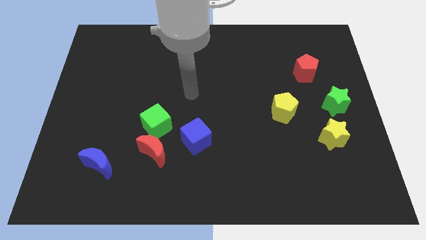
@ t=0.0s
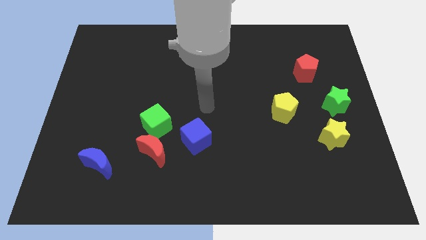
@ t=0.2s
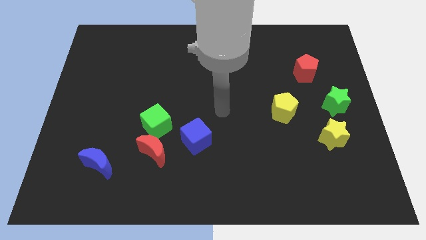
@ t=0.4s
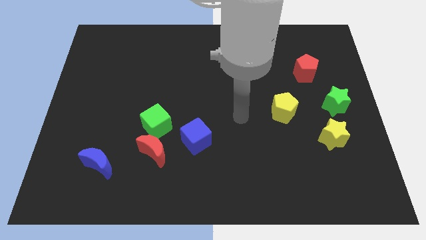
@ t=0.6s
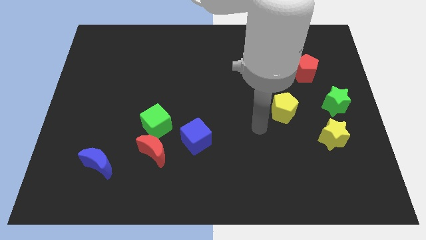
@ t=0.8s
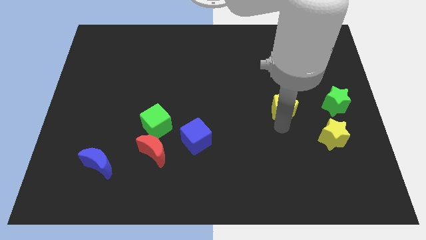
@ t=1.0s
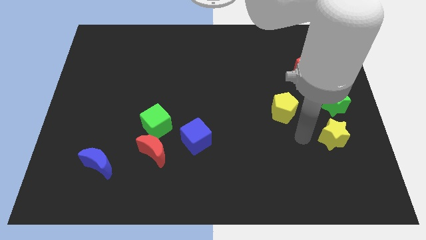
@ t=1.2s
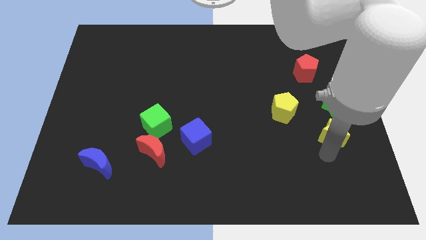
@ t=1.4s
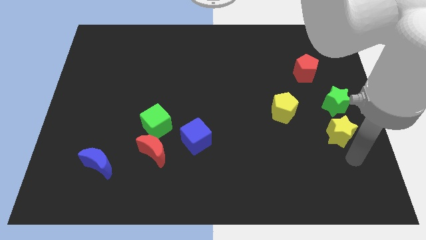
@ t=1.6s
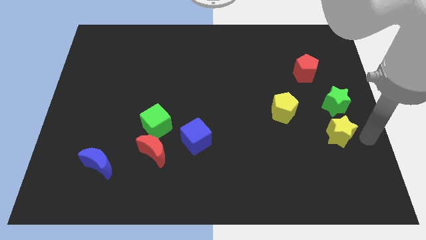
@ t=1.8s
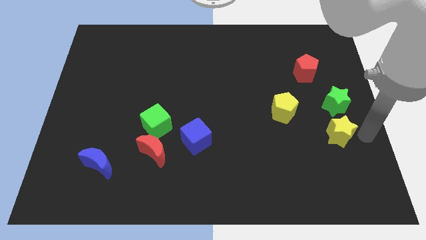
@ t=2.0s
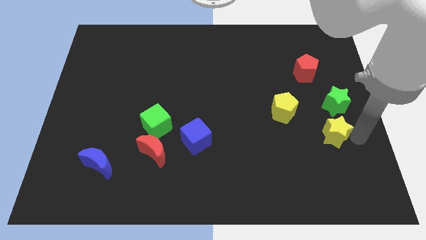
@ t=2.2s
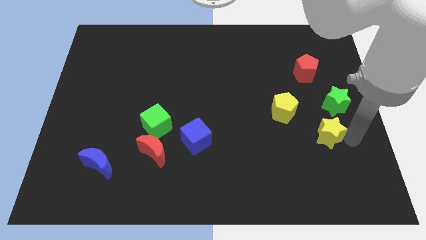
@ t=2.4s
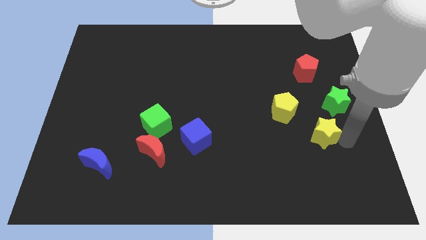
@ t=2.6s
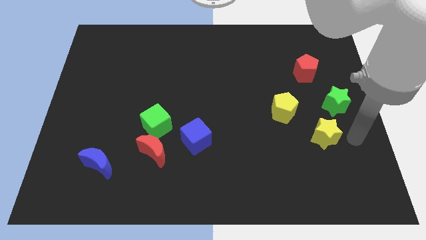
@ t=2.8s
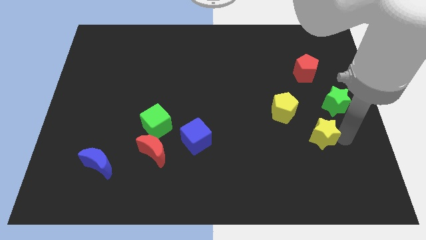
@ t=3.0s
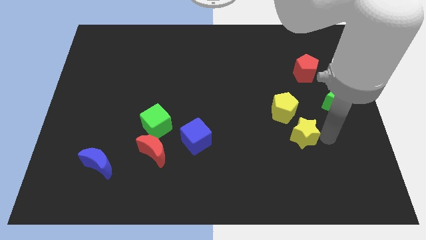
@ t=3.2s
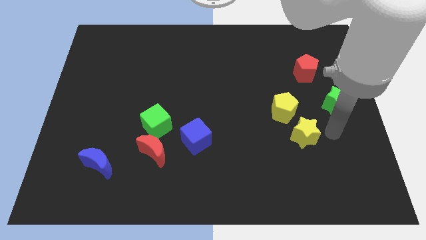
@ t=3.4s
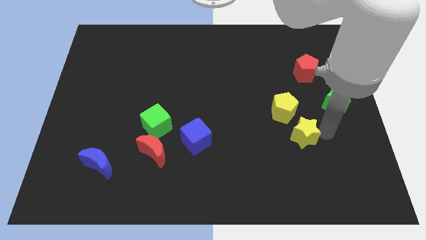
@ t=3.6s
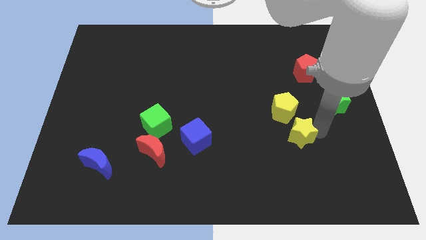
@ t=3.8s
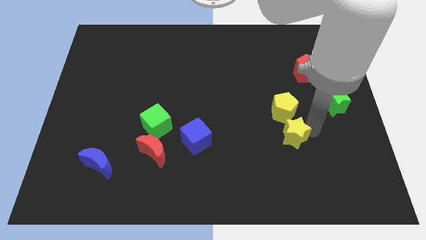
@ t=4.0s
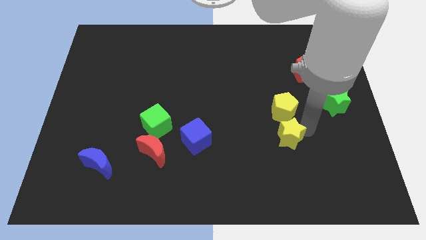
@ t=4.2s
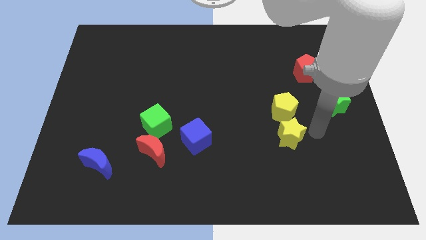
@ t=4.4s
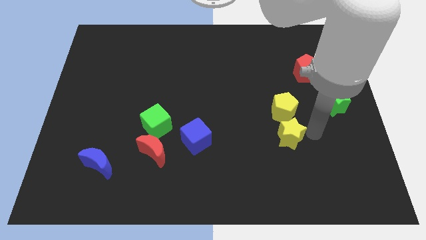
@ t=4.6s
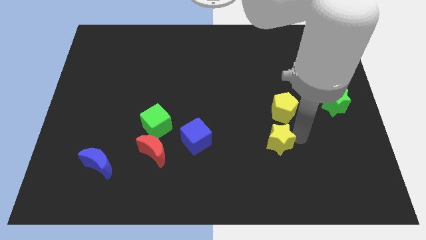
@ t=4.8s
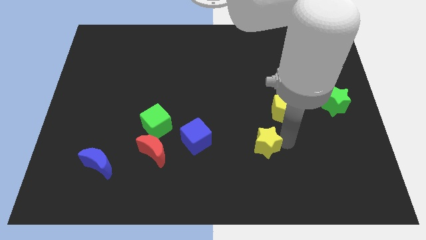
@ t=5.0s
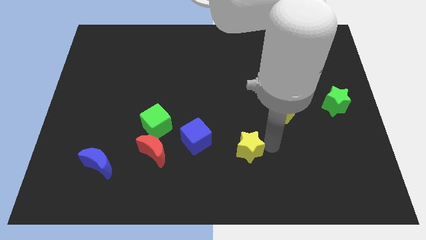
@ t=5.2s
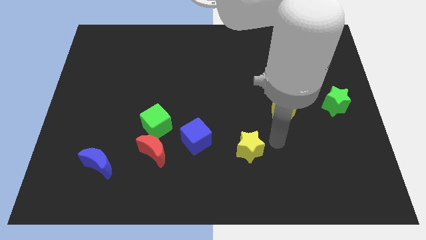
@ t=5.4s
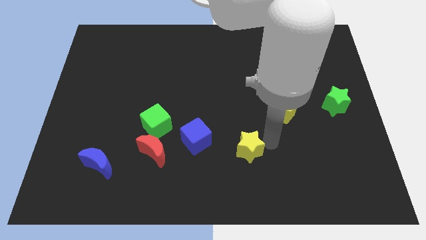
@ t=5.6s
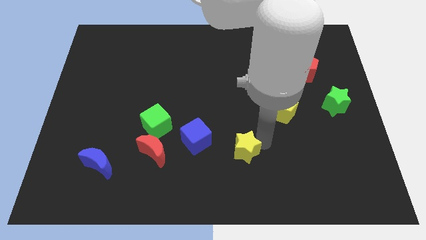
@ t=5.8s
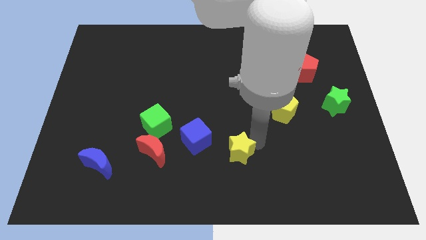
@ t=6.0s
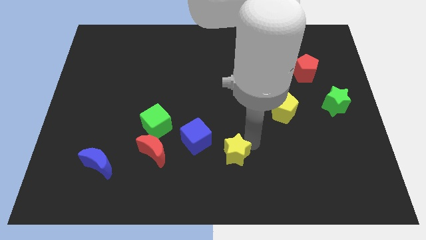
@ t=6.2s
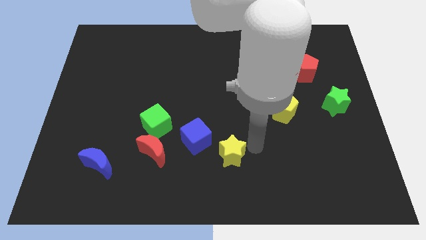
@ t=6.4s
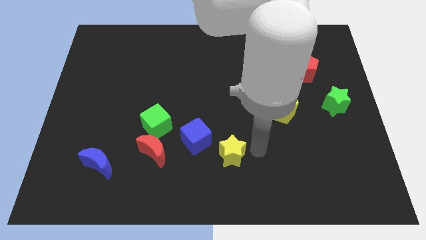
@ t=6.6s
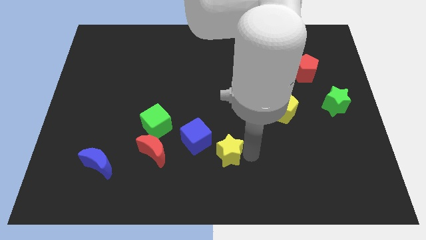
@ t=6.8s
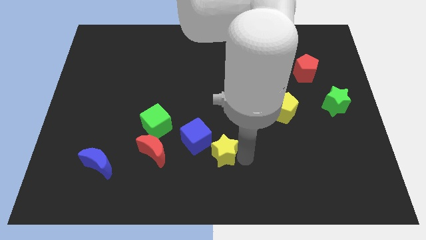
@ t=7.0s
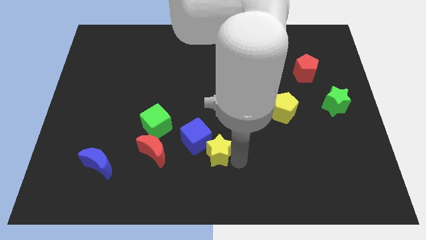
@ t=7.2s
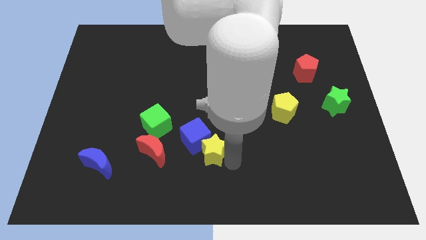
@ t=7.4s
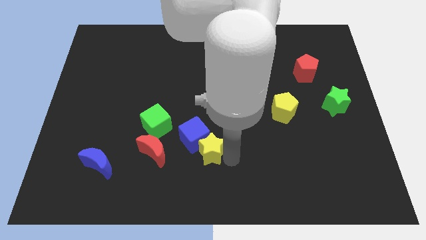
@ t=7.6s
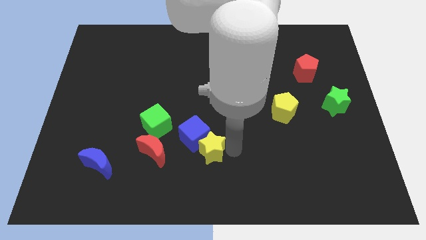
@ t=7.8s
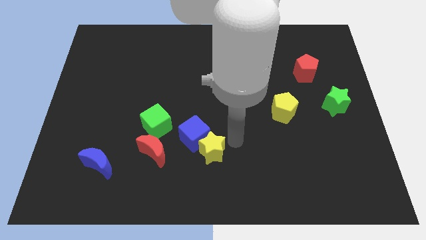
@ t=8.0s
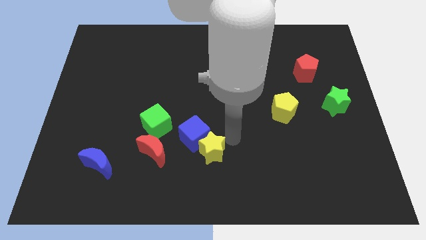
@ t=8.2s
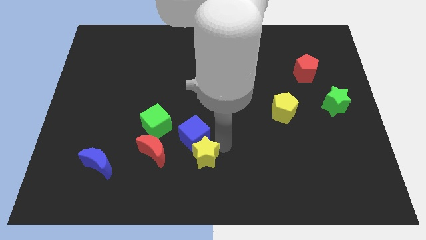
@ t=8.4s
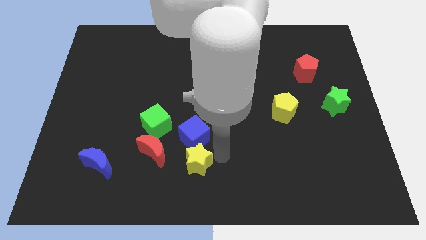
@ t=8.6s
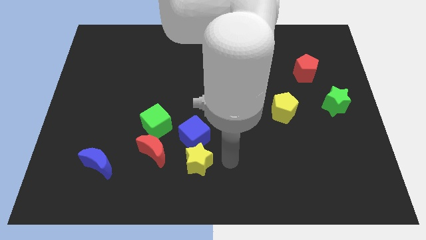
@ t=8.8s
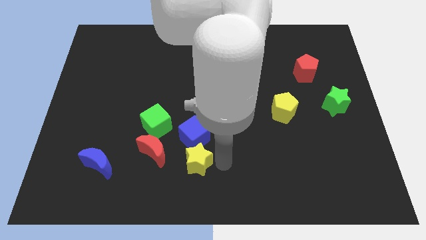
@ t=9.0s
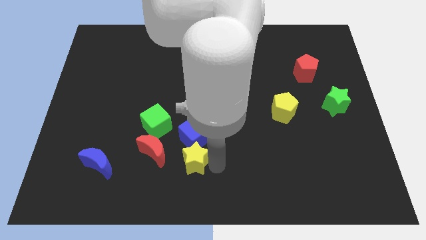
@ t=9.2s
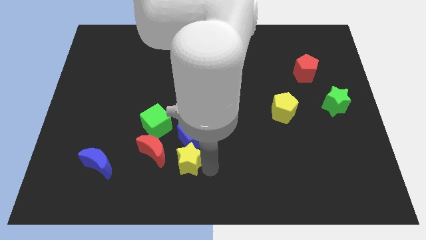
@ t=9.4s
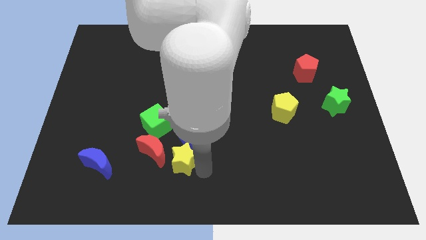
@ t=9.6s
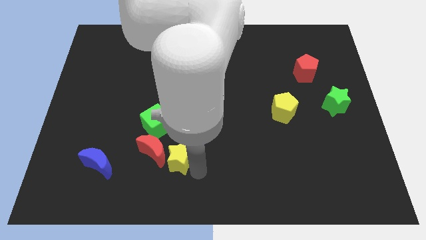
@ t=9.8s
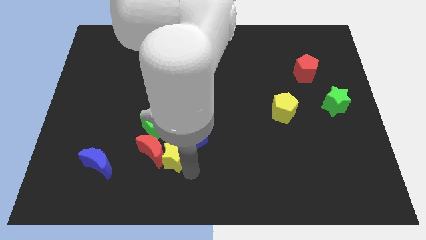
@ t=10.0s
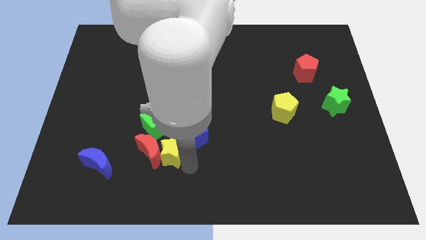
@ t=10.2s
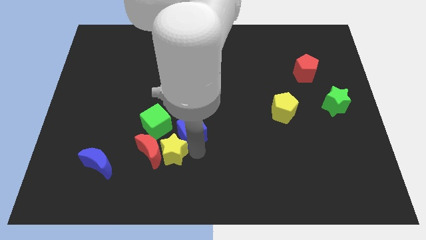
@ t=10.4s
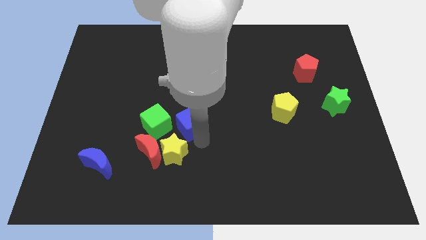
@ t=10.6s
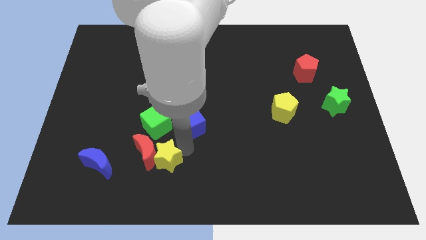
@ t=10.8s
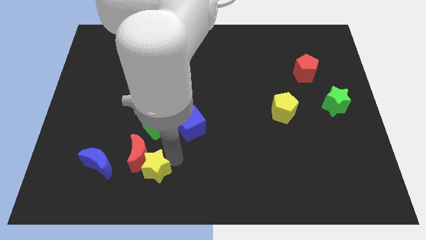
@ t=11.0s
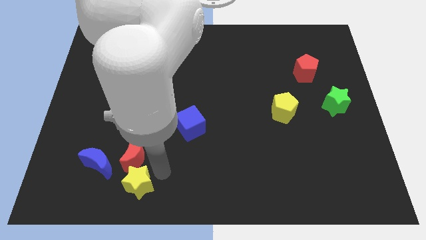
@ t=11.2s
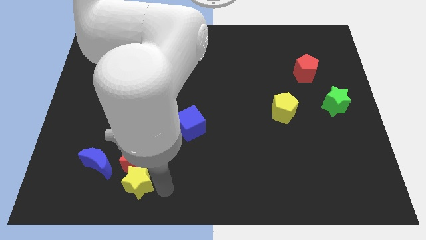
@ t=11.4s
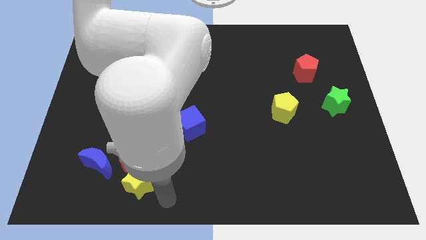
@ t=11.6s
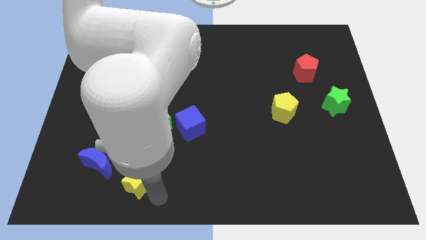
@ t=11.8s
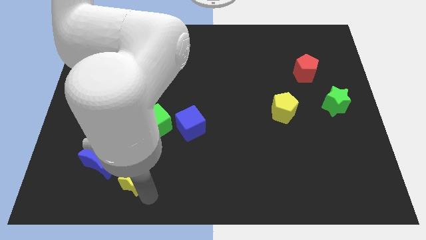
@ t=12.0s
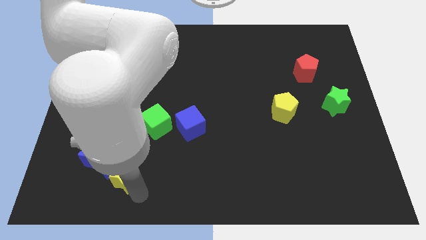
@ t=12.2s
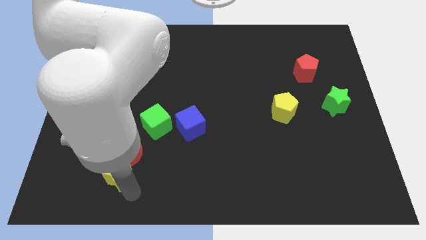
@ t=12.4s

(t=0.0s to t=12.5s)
put the yellow star next to the blue moon

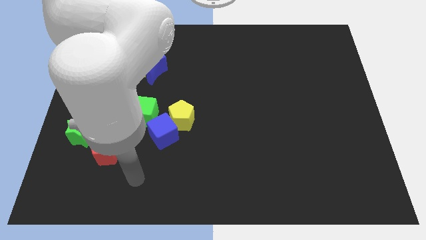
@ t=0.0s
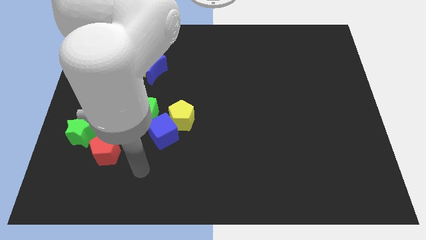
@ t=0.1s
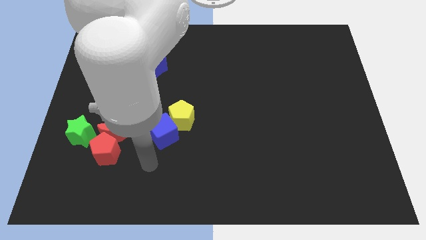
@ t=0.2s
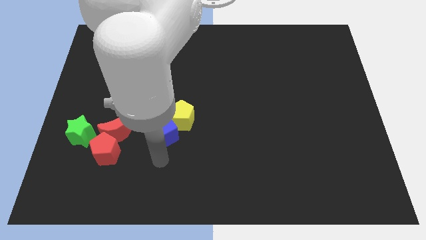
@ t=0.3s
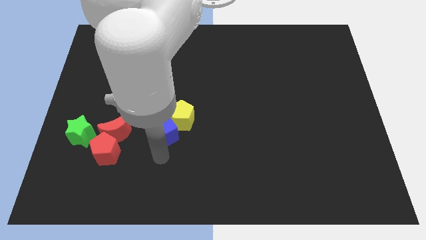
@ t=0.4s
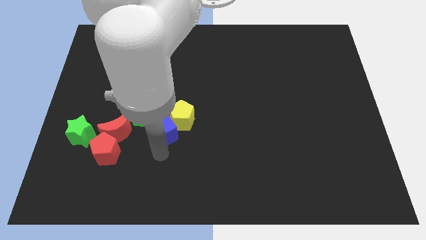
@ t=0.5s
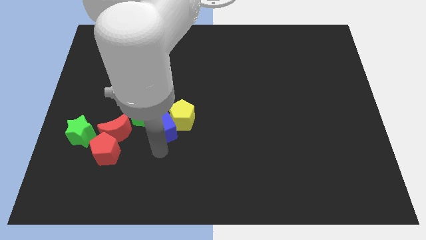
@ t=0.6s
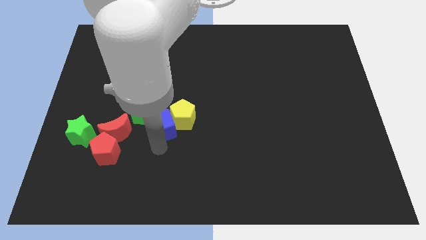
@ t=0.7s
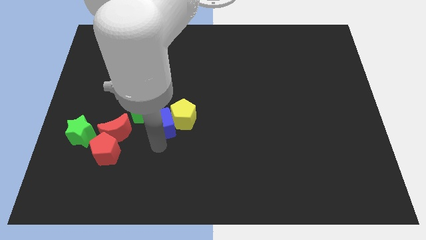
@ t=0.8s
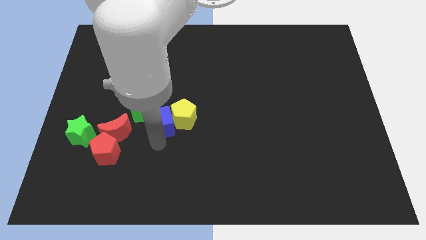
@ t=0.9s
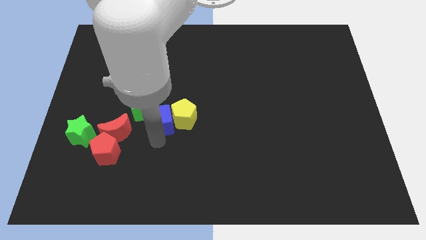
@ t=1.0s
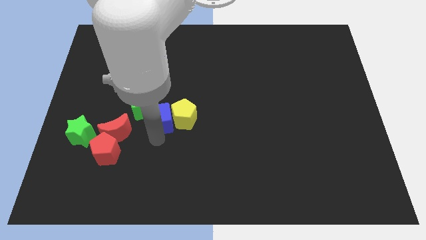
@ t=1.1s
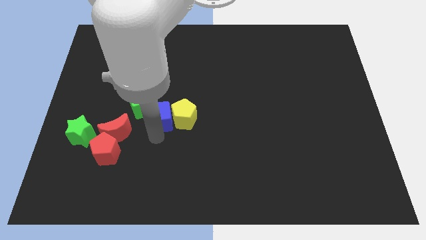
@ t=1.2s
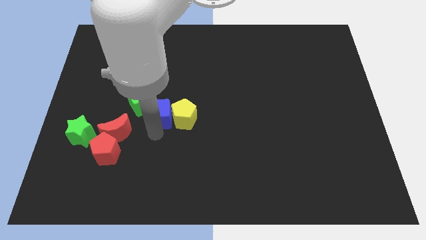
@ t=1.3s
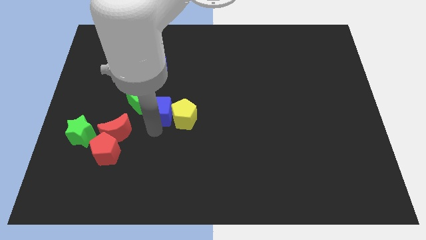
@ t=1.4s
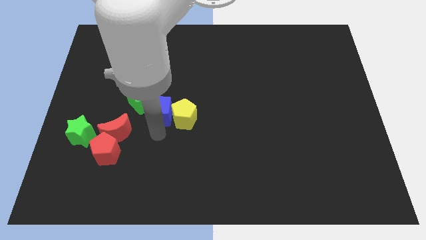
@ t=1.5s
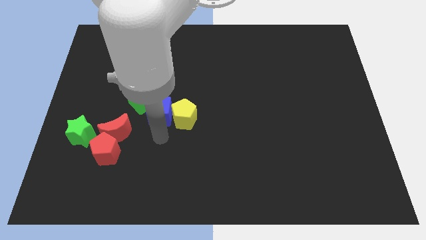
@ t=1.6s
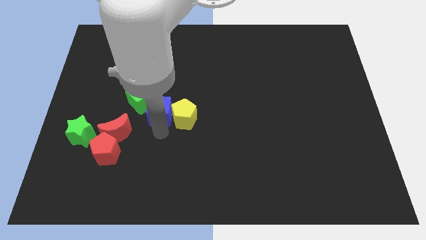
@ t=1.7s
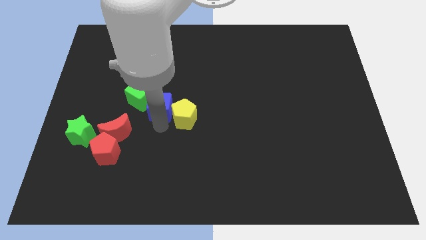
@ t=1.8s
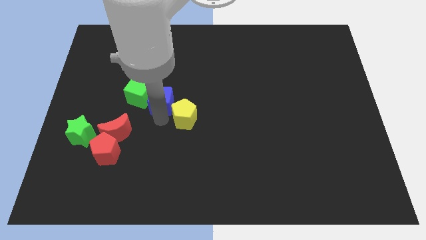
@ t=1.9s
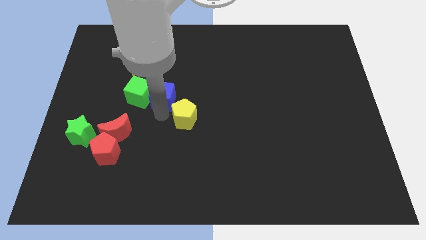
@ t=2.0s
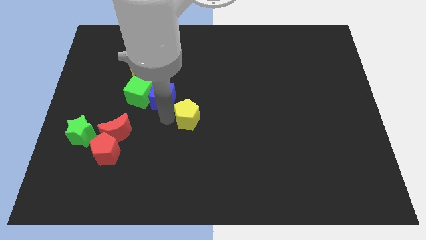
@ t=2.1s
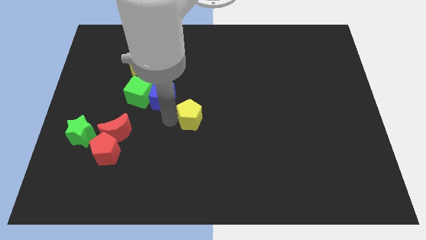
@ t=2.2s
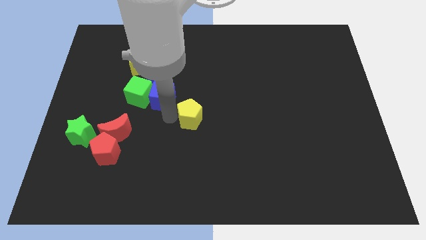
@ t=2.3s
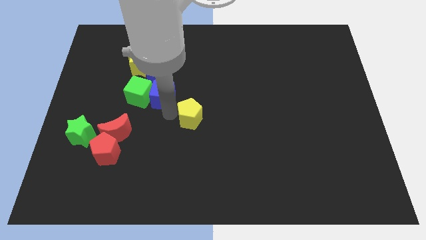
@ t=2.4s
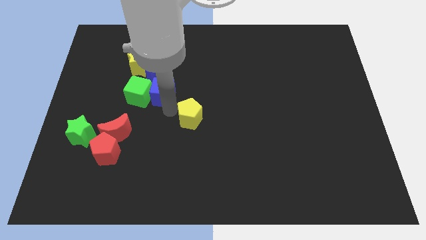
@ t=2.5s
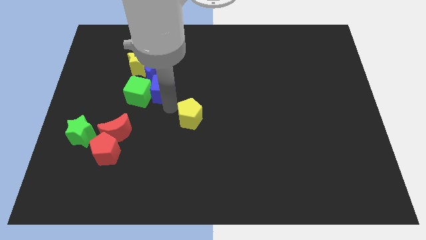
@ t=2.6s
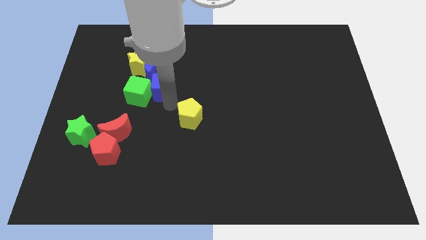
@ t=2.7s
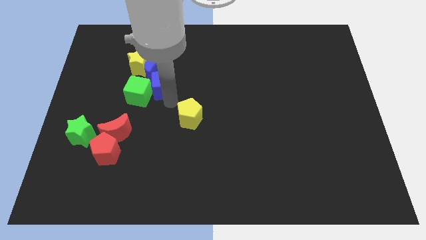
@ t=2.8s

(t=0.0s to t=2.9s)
move the blue cube towards the blue moon
